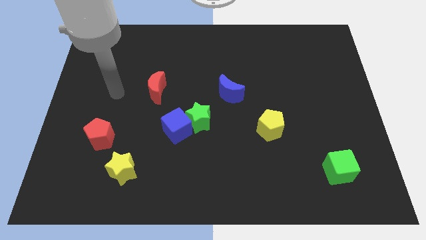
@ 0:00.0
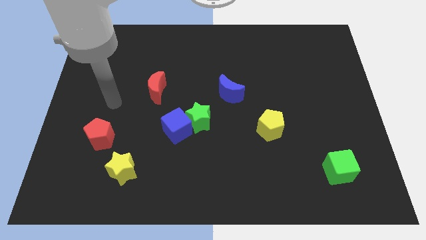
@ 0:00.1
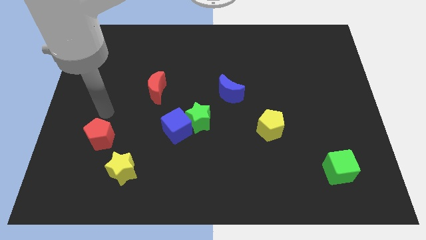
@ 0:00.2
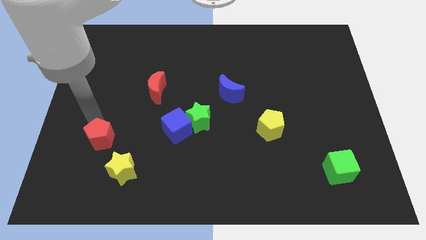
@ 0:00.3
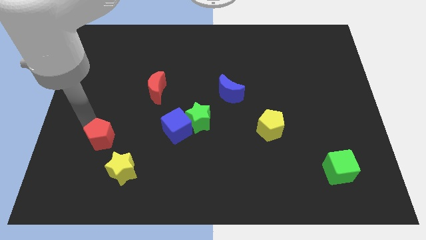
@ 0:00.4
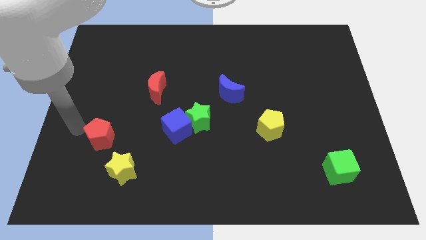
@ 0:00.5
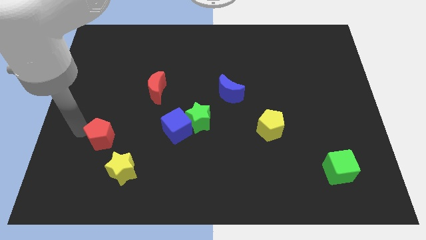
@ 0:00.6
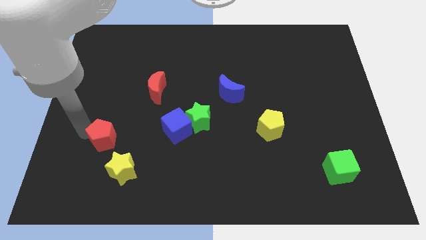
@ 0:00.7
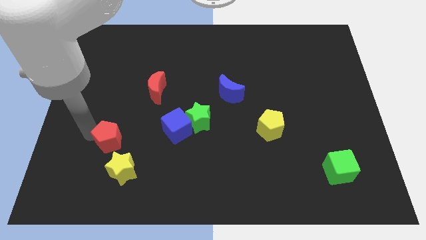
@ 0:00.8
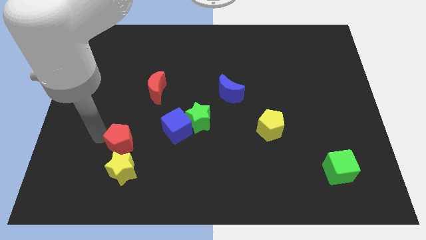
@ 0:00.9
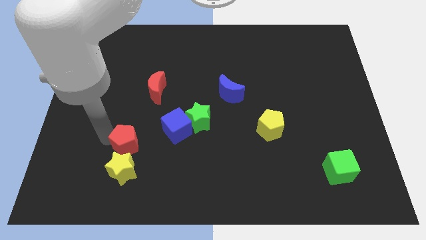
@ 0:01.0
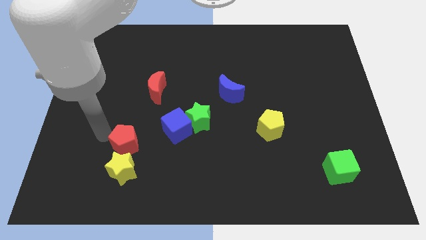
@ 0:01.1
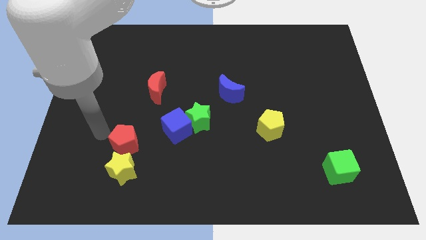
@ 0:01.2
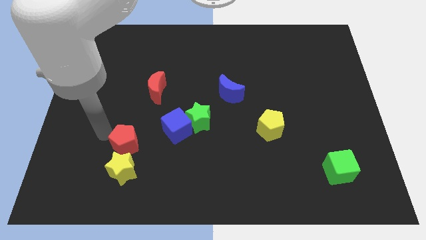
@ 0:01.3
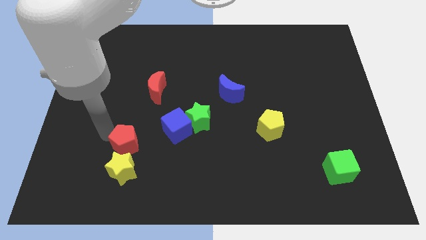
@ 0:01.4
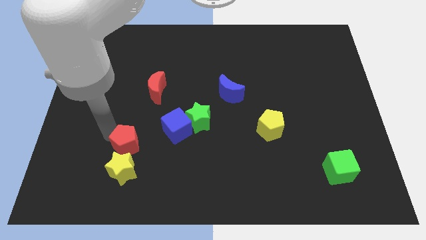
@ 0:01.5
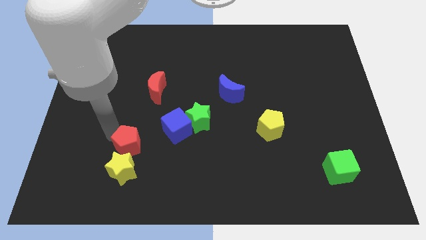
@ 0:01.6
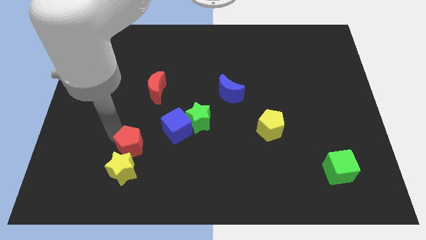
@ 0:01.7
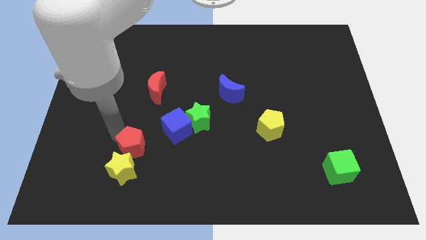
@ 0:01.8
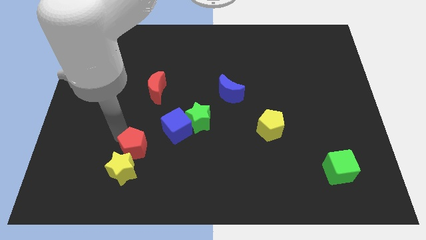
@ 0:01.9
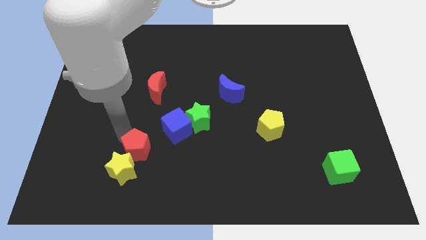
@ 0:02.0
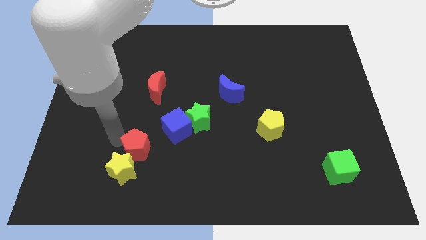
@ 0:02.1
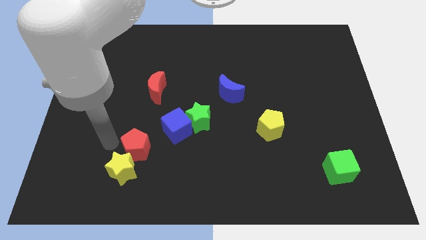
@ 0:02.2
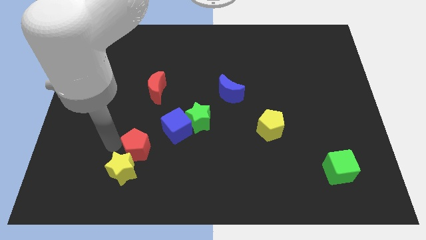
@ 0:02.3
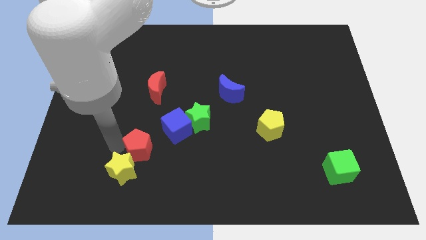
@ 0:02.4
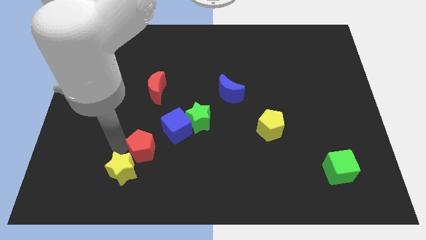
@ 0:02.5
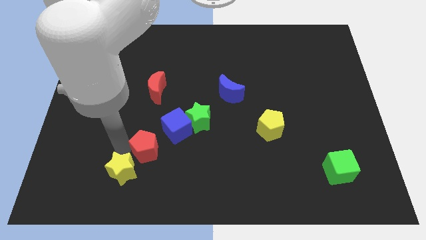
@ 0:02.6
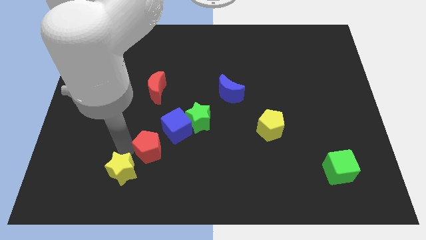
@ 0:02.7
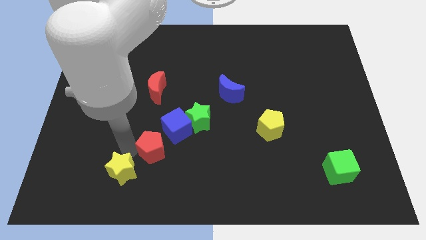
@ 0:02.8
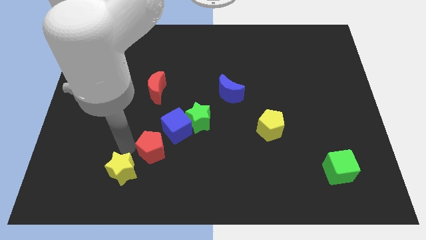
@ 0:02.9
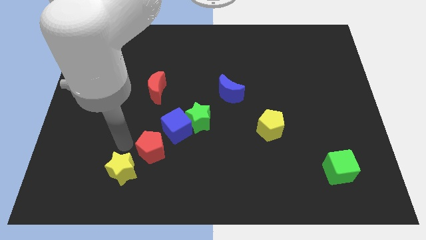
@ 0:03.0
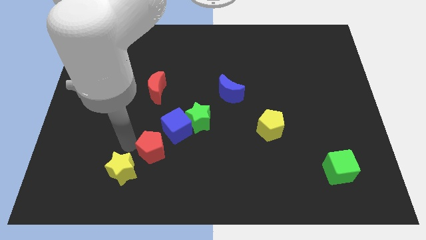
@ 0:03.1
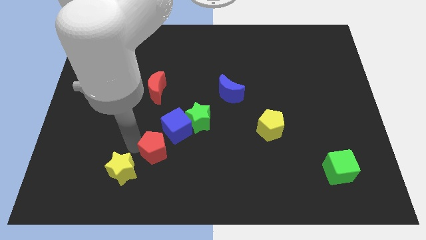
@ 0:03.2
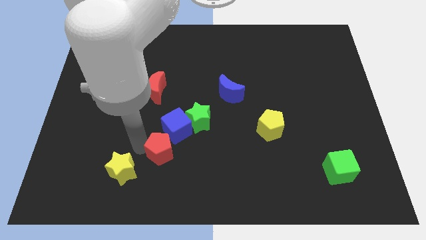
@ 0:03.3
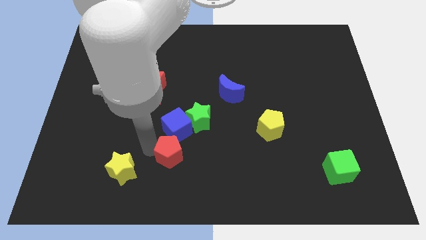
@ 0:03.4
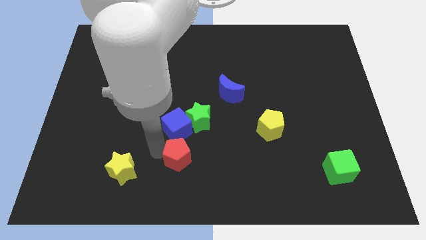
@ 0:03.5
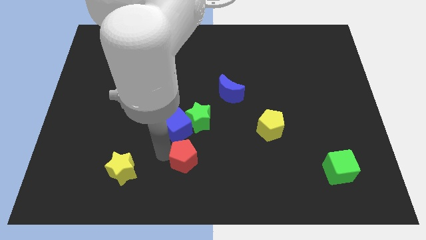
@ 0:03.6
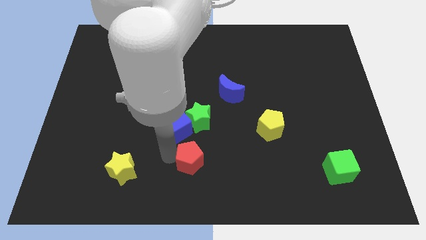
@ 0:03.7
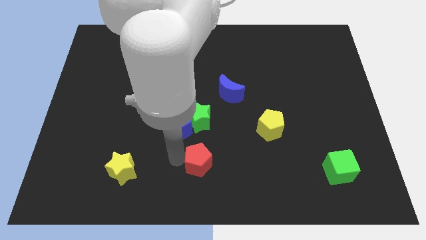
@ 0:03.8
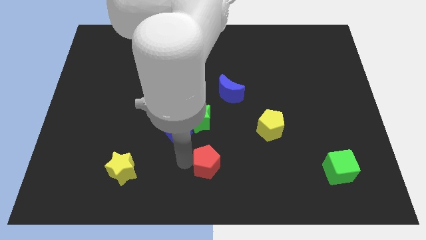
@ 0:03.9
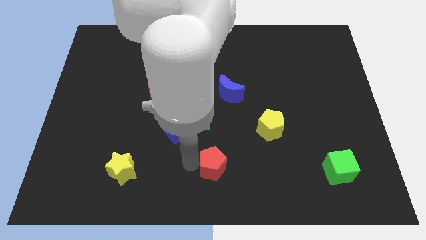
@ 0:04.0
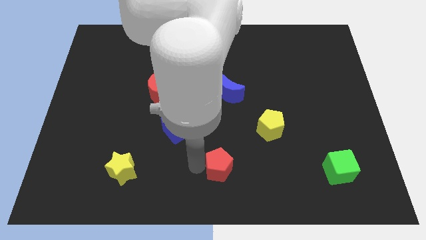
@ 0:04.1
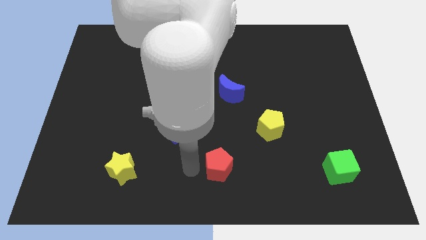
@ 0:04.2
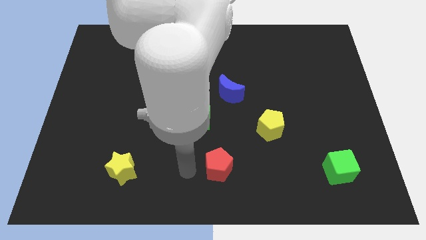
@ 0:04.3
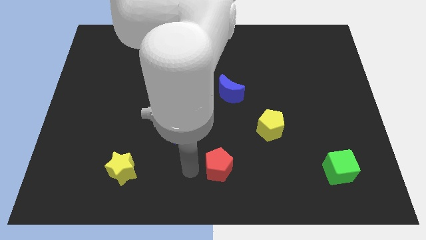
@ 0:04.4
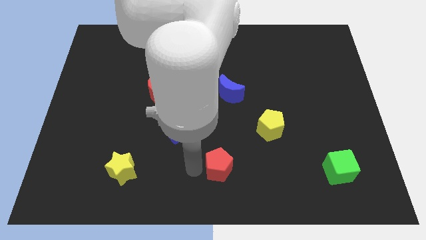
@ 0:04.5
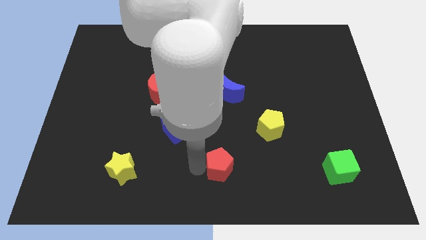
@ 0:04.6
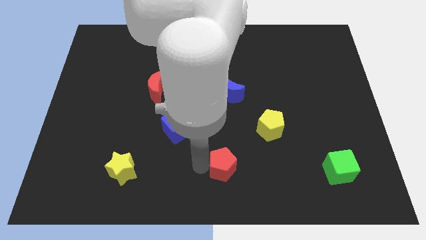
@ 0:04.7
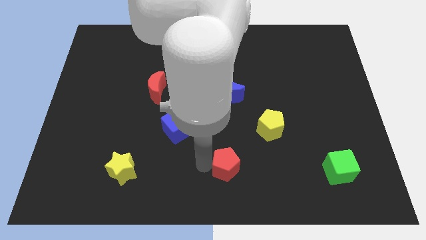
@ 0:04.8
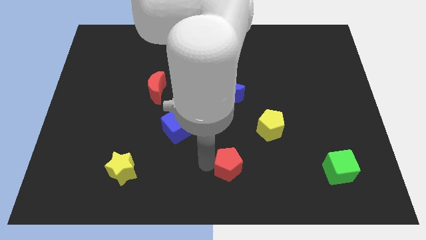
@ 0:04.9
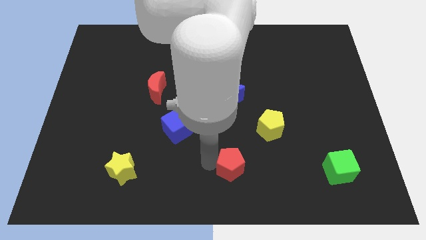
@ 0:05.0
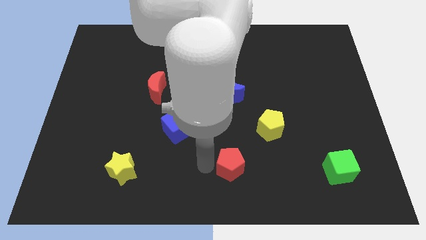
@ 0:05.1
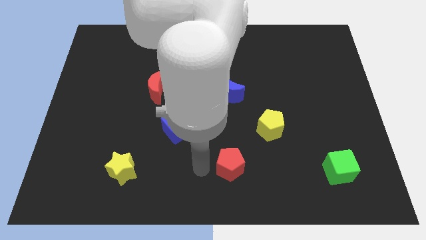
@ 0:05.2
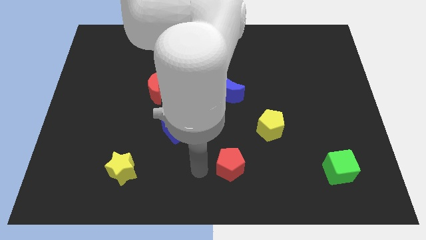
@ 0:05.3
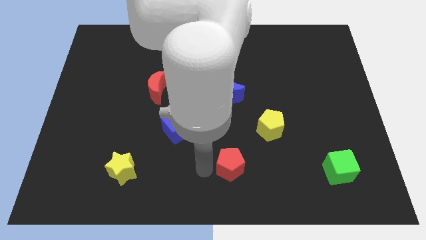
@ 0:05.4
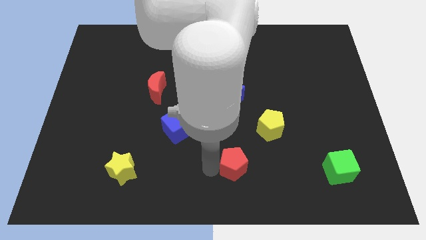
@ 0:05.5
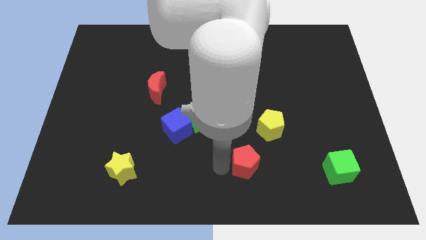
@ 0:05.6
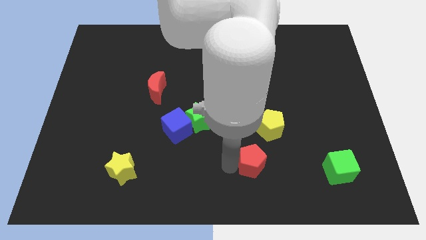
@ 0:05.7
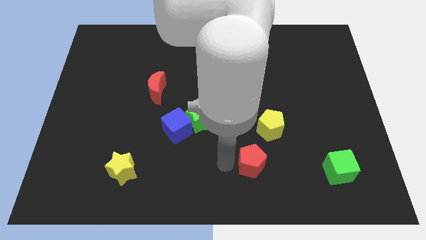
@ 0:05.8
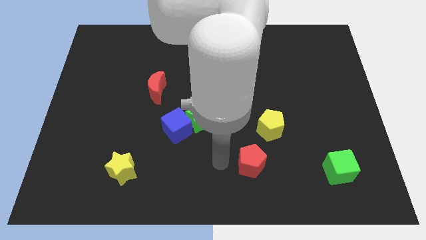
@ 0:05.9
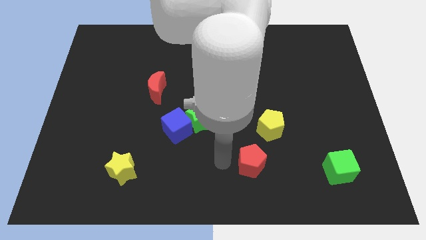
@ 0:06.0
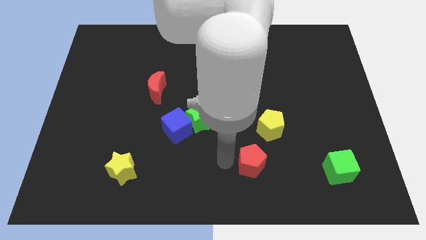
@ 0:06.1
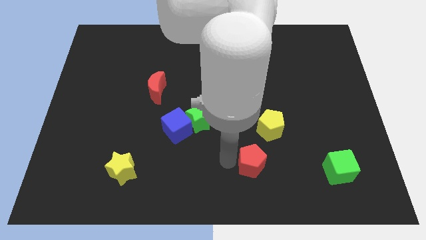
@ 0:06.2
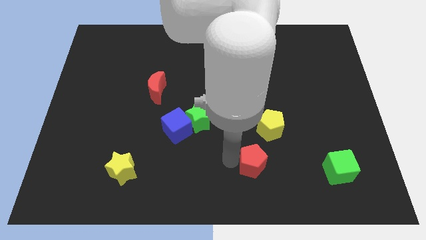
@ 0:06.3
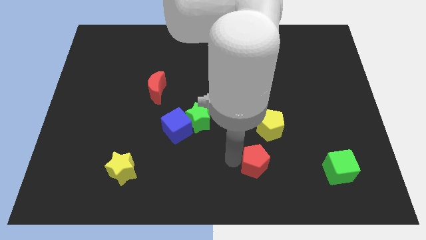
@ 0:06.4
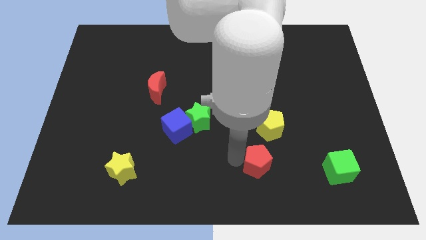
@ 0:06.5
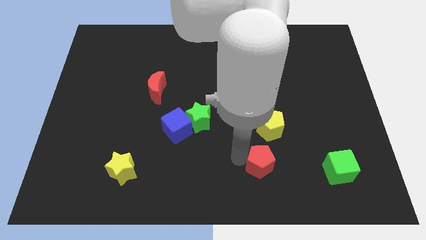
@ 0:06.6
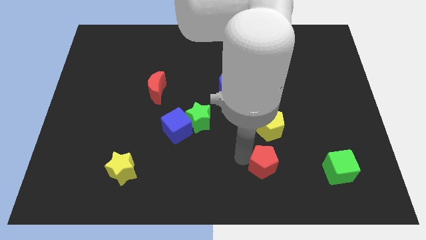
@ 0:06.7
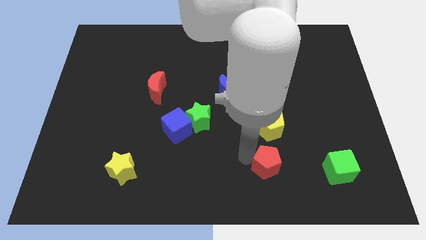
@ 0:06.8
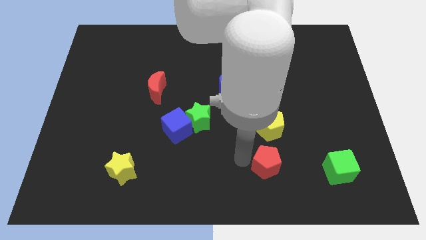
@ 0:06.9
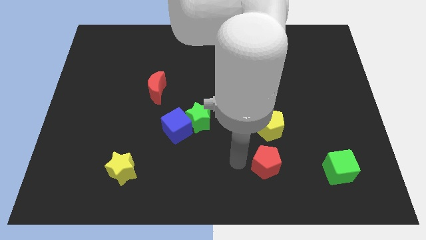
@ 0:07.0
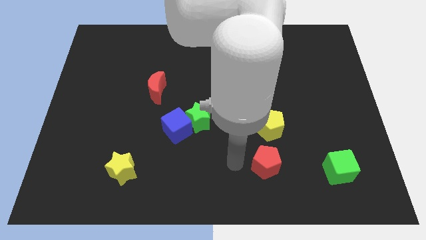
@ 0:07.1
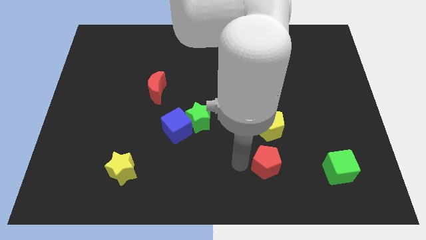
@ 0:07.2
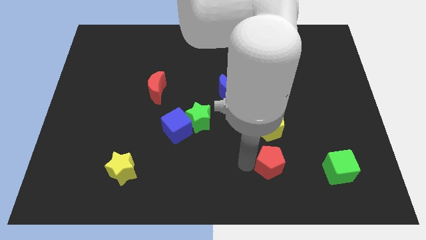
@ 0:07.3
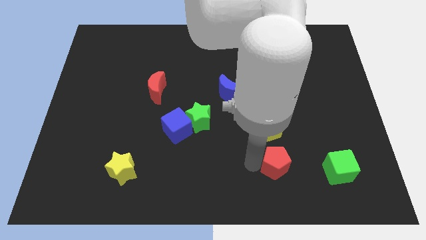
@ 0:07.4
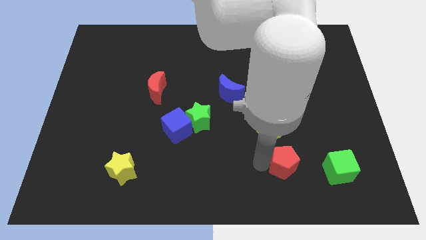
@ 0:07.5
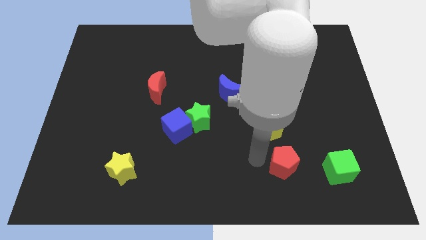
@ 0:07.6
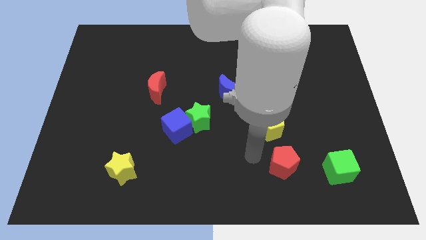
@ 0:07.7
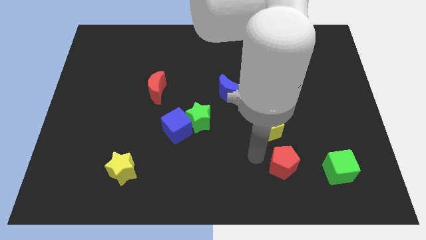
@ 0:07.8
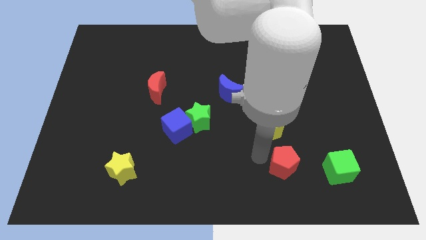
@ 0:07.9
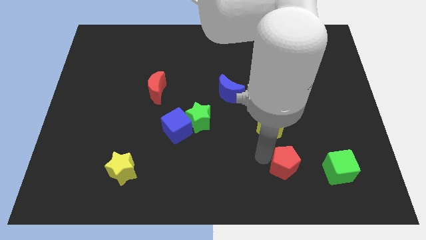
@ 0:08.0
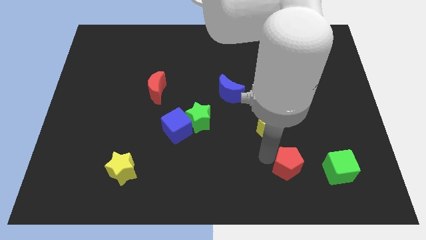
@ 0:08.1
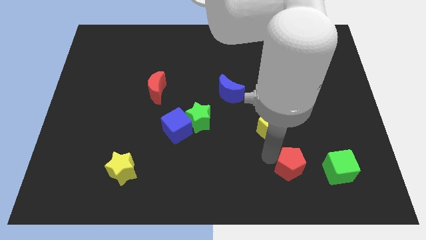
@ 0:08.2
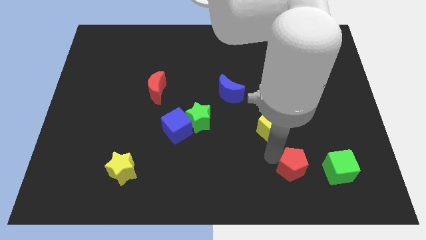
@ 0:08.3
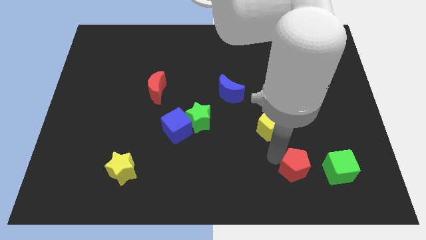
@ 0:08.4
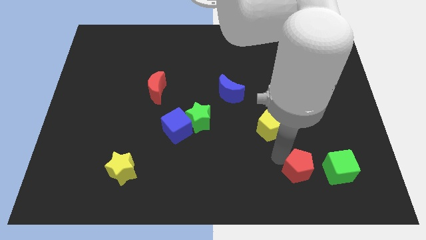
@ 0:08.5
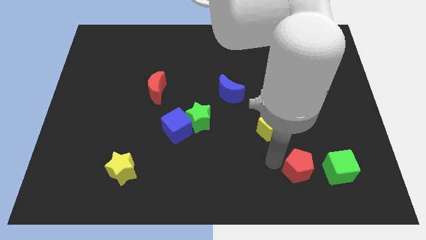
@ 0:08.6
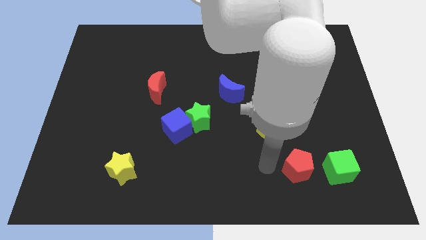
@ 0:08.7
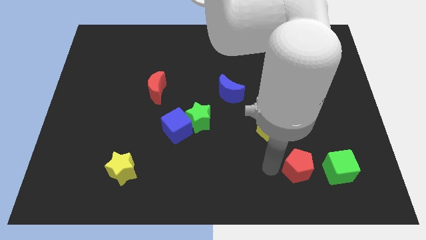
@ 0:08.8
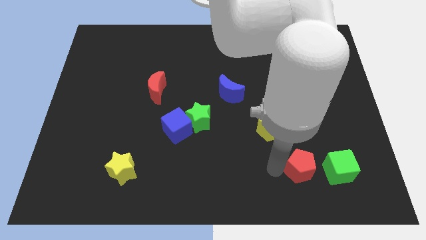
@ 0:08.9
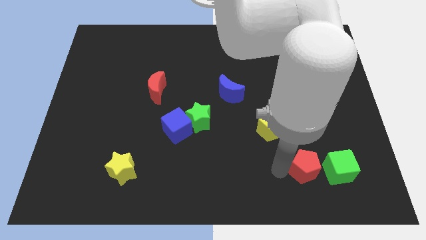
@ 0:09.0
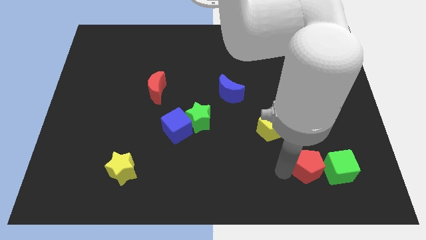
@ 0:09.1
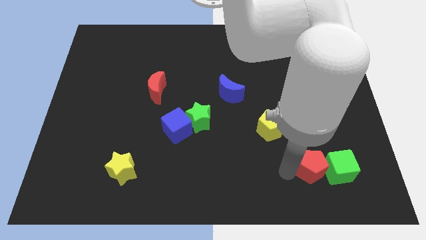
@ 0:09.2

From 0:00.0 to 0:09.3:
slide the red pentagon close to the green cube
